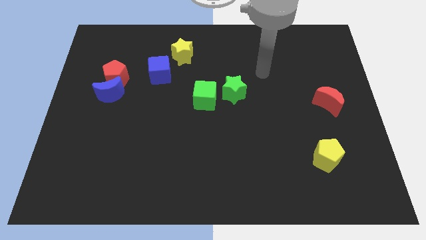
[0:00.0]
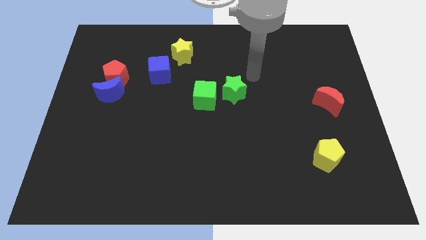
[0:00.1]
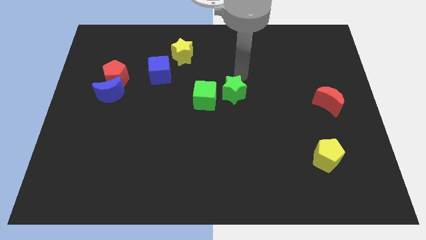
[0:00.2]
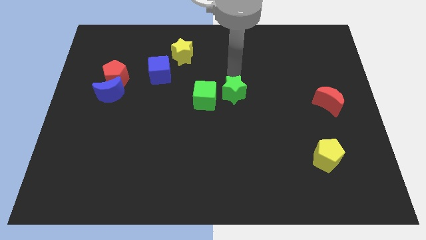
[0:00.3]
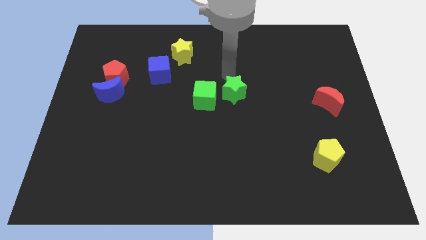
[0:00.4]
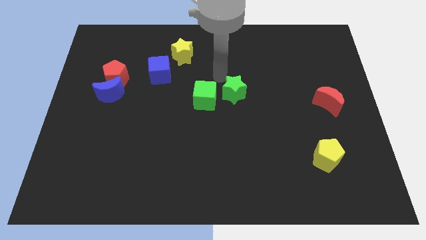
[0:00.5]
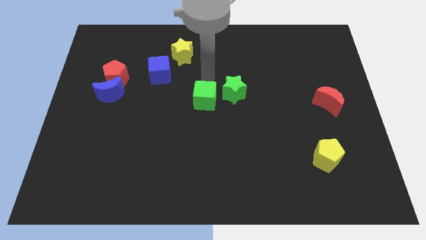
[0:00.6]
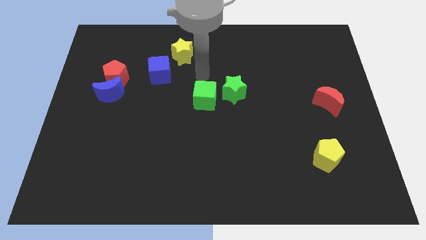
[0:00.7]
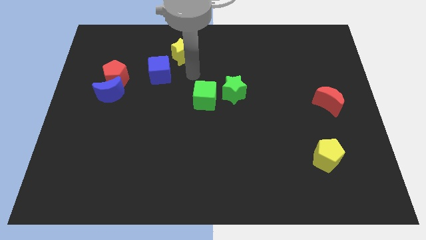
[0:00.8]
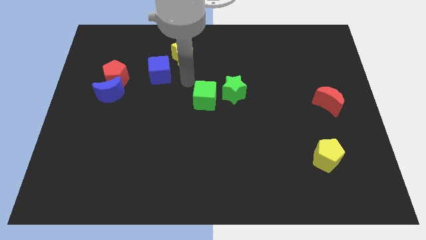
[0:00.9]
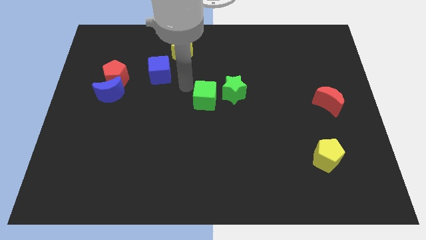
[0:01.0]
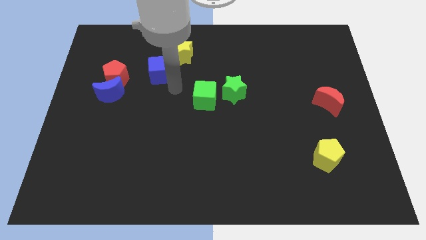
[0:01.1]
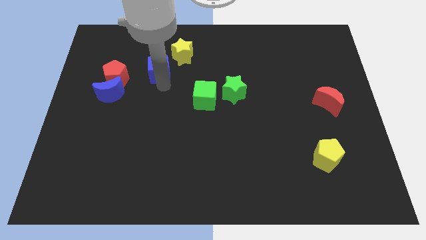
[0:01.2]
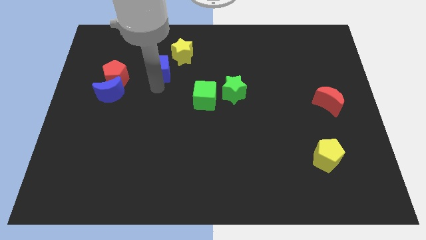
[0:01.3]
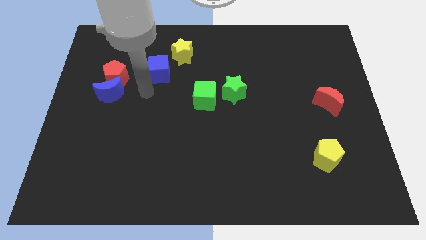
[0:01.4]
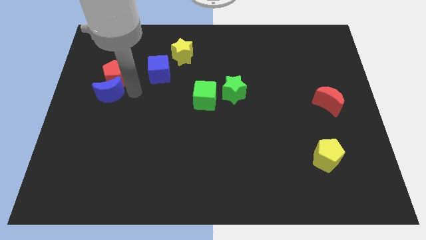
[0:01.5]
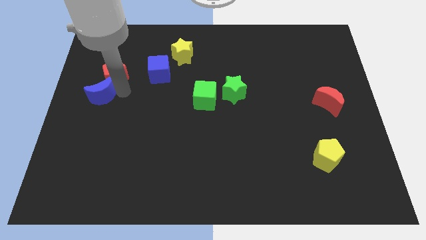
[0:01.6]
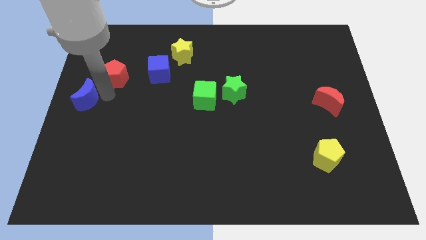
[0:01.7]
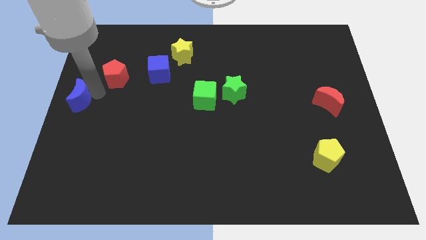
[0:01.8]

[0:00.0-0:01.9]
pull the red pentagon apart from the blue moon

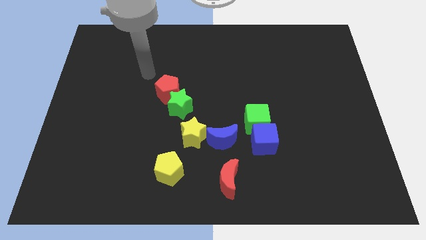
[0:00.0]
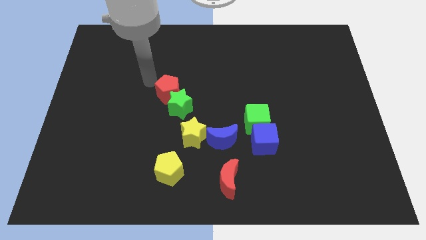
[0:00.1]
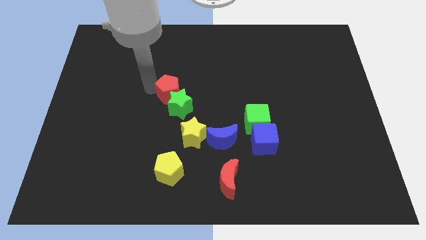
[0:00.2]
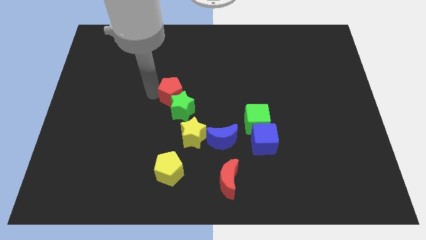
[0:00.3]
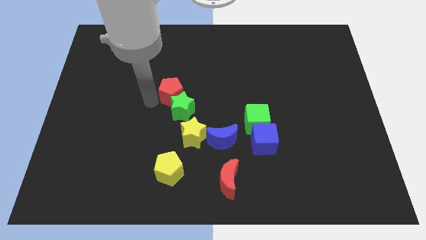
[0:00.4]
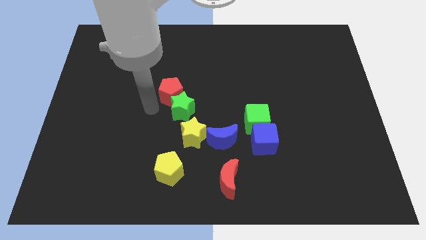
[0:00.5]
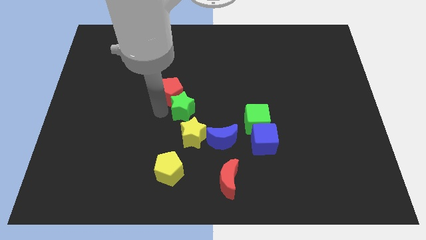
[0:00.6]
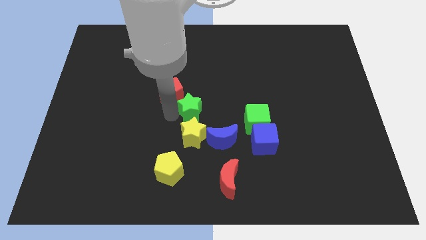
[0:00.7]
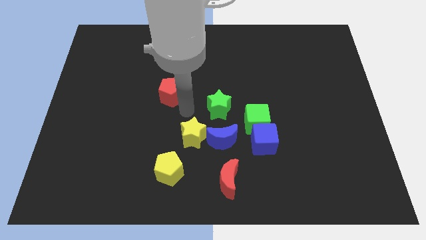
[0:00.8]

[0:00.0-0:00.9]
separate the red pentagon from the green star

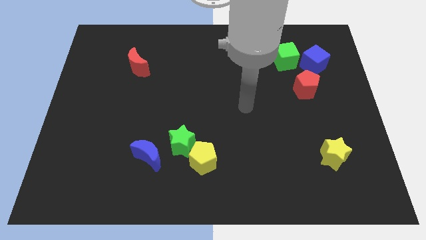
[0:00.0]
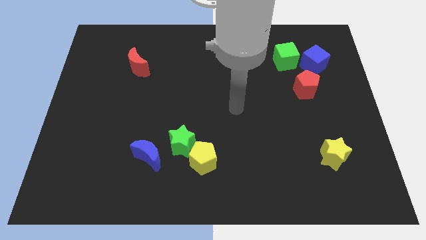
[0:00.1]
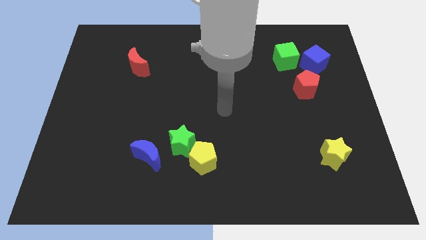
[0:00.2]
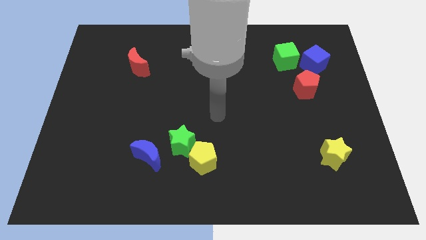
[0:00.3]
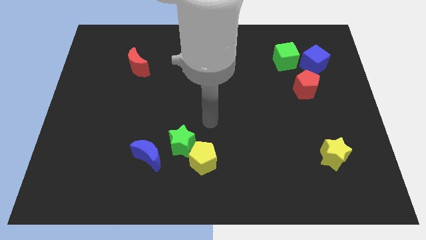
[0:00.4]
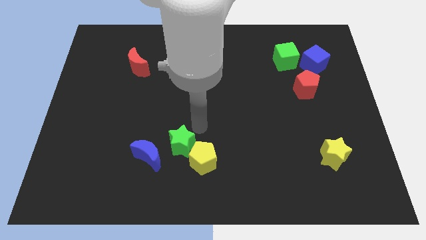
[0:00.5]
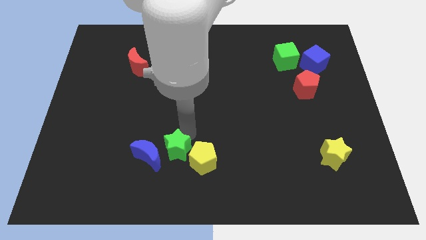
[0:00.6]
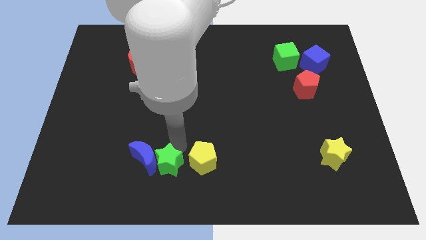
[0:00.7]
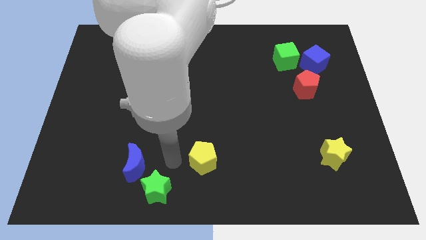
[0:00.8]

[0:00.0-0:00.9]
move the yellow pentagon away from the green star

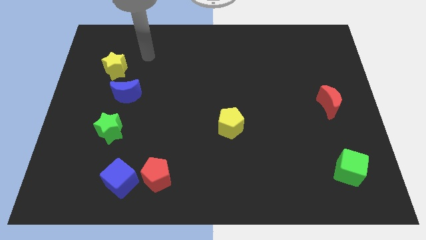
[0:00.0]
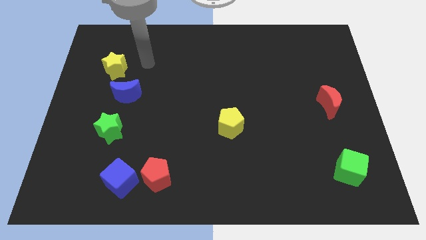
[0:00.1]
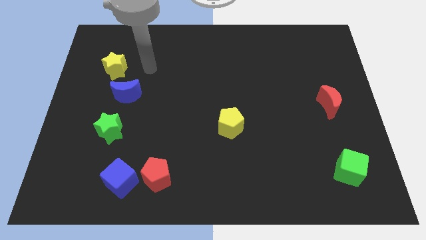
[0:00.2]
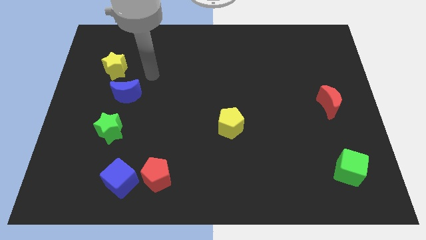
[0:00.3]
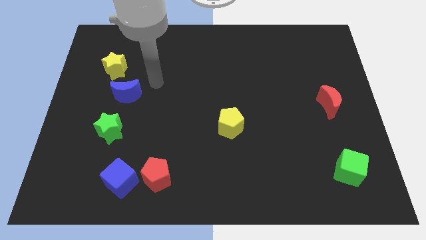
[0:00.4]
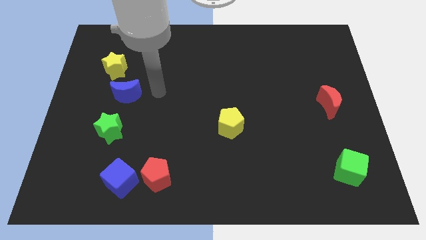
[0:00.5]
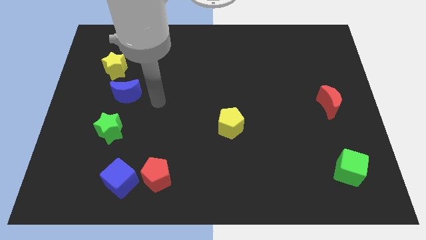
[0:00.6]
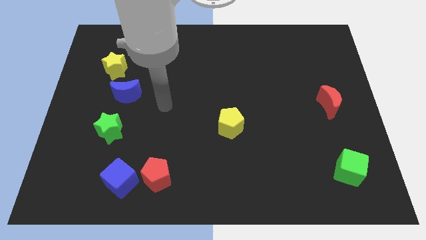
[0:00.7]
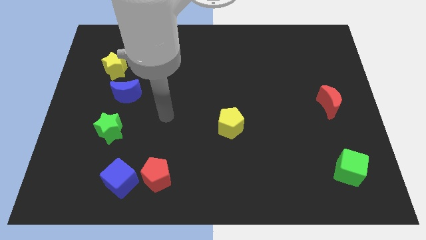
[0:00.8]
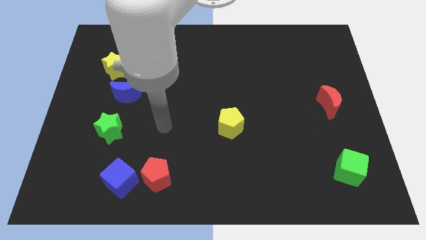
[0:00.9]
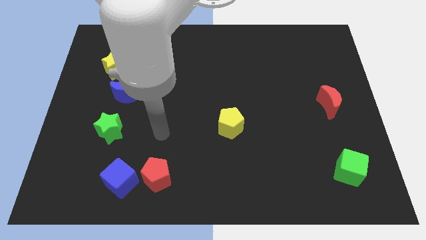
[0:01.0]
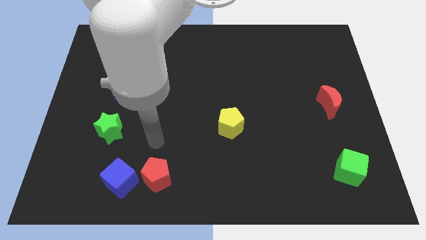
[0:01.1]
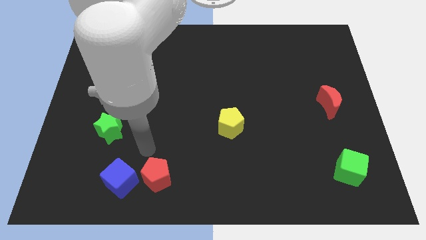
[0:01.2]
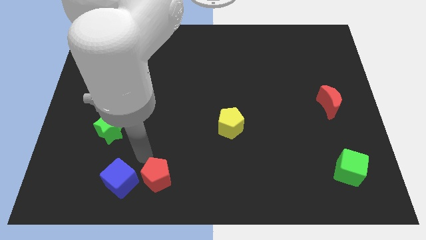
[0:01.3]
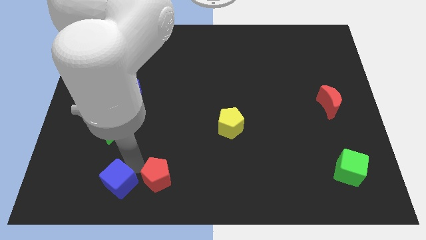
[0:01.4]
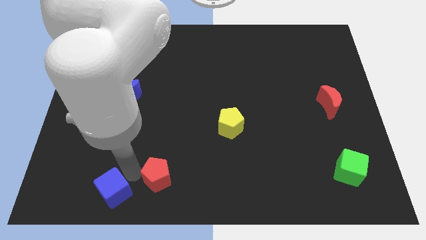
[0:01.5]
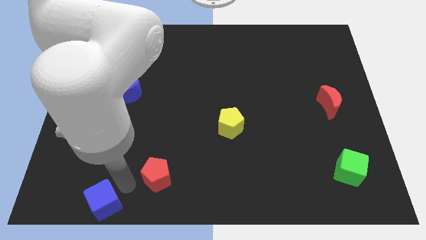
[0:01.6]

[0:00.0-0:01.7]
pull the red pentagon apart from the blue cube

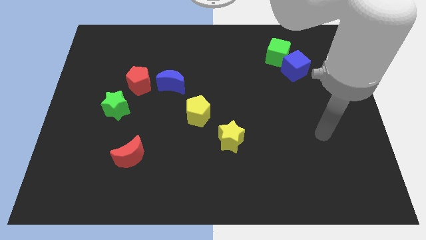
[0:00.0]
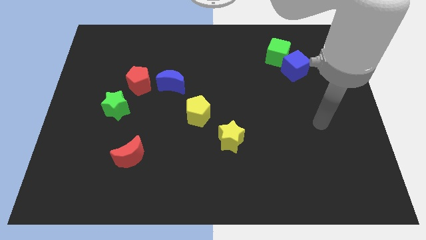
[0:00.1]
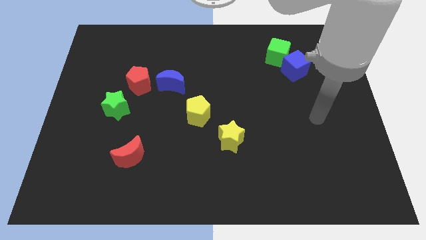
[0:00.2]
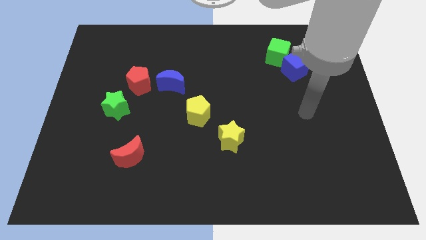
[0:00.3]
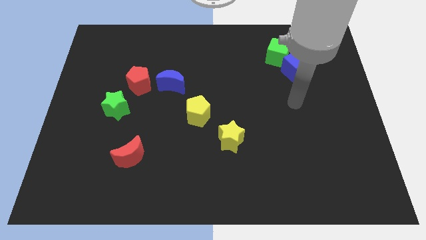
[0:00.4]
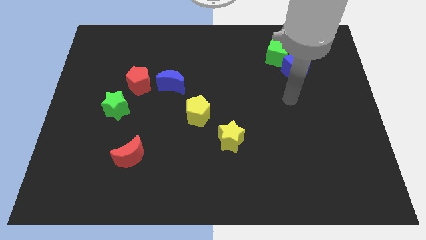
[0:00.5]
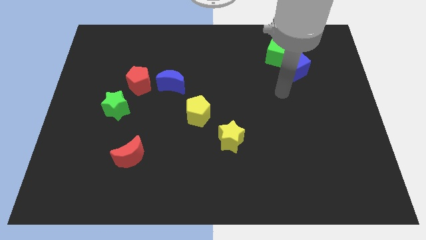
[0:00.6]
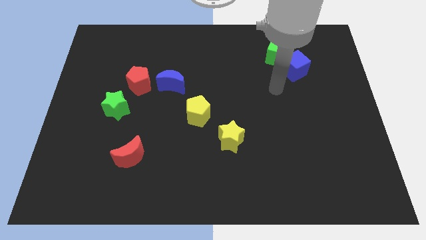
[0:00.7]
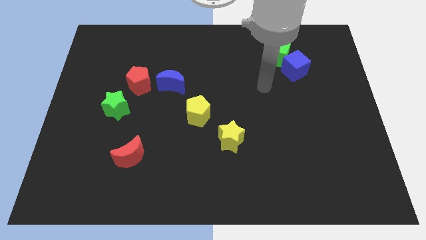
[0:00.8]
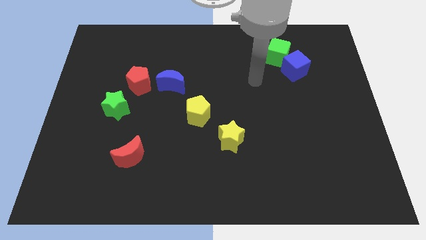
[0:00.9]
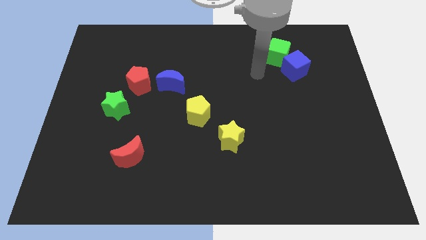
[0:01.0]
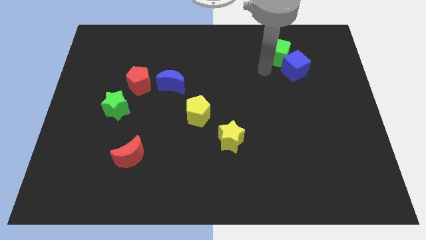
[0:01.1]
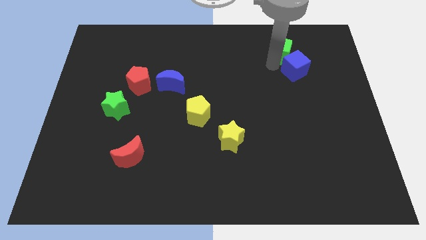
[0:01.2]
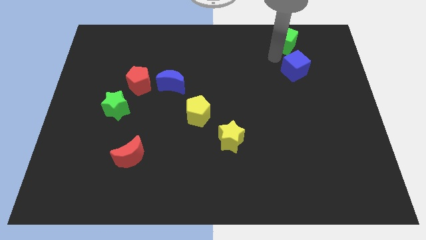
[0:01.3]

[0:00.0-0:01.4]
separate the blue cube from the green cube

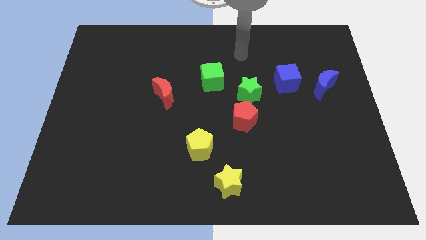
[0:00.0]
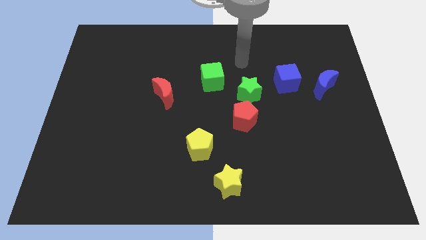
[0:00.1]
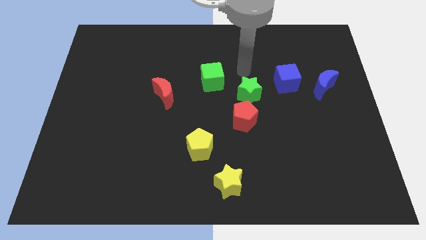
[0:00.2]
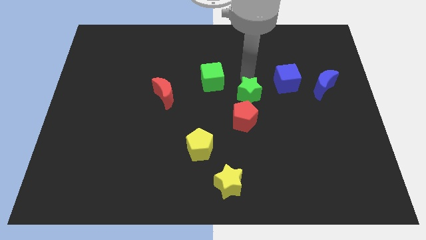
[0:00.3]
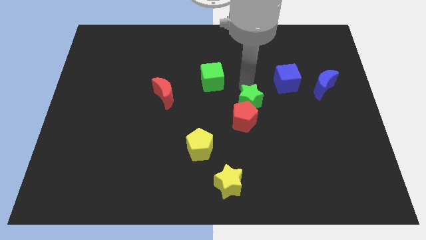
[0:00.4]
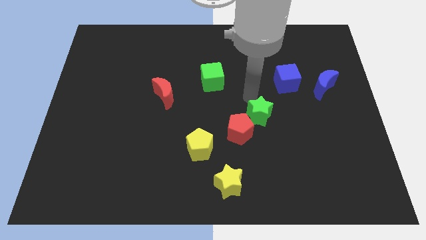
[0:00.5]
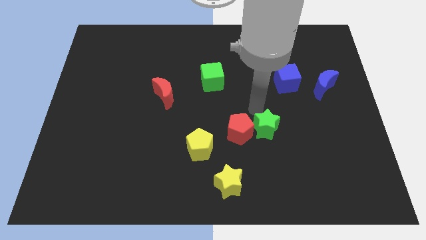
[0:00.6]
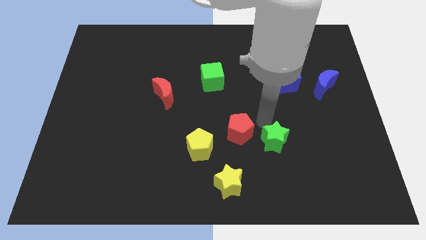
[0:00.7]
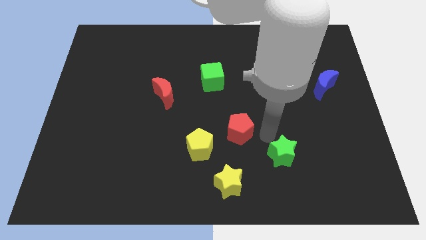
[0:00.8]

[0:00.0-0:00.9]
pull the red pentagon apart from the green star

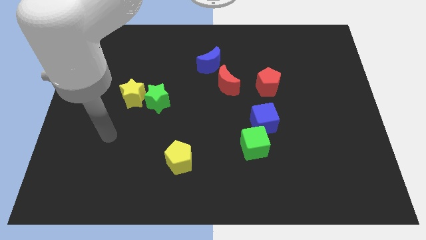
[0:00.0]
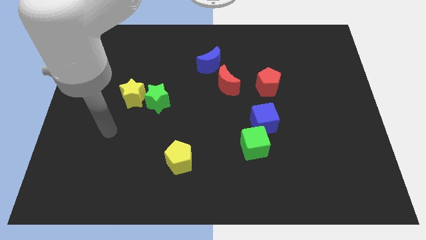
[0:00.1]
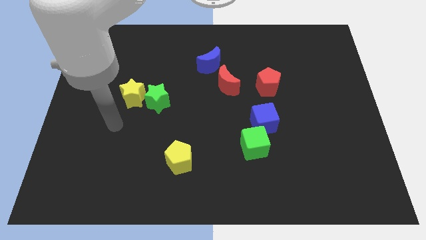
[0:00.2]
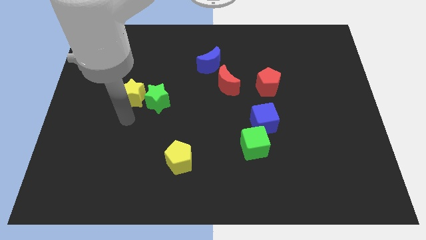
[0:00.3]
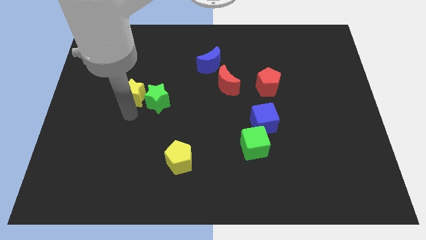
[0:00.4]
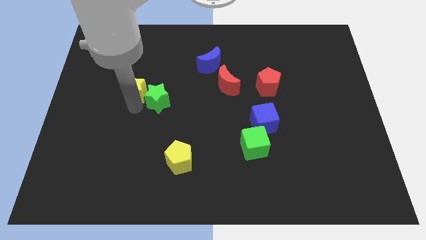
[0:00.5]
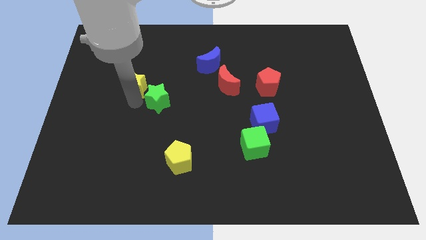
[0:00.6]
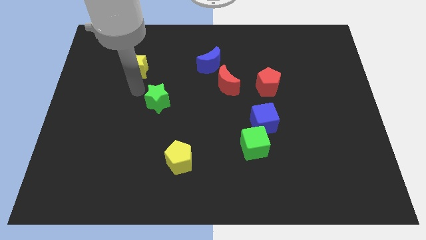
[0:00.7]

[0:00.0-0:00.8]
move the green star away from the yellow star

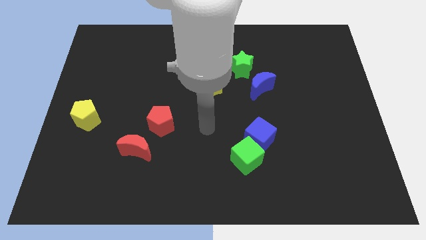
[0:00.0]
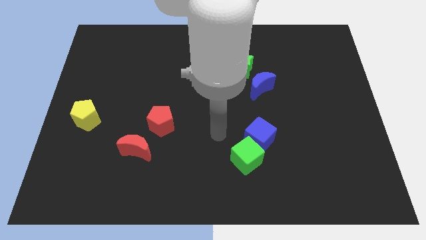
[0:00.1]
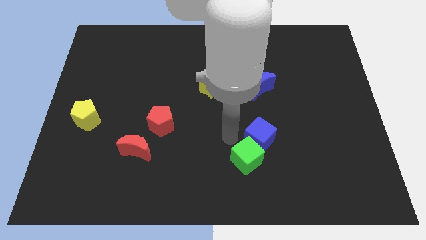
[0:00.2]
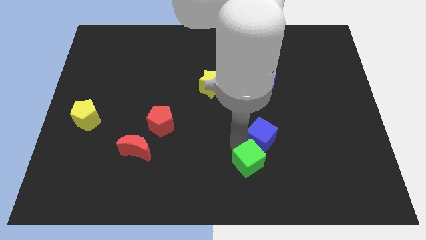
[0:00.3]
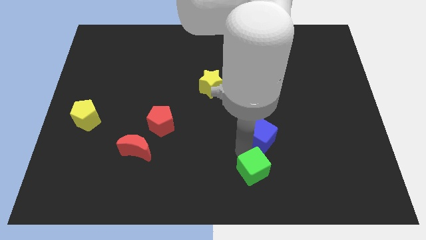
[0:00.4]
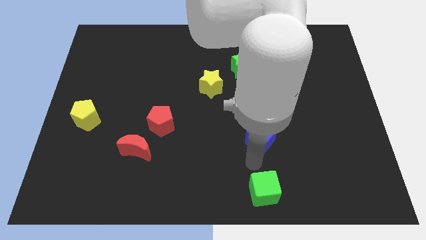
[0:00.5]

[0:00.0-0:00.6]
move the blue cube away from the green cube

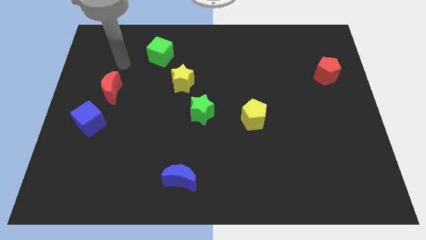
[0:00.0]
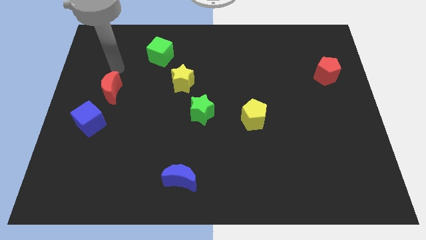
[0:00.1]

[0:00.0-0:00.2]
separate the red moon from the blue cube
